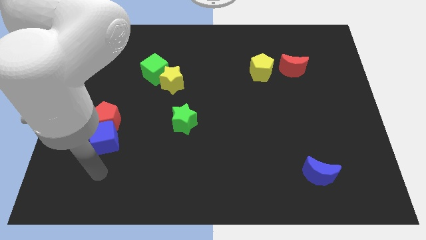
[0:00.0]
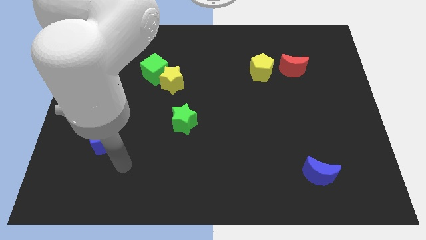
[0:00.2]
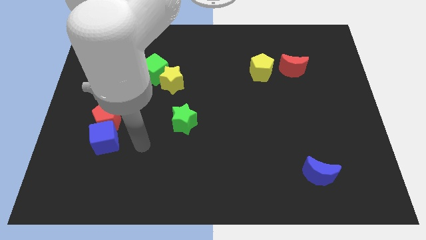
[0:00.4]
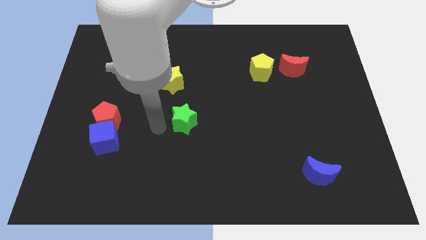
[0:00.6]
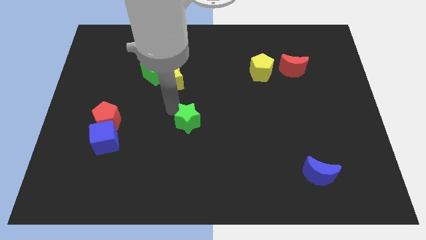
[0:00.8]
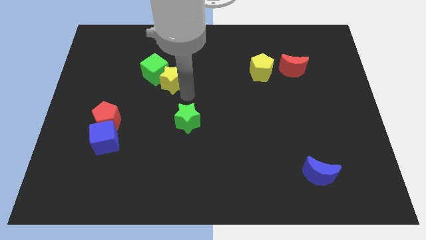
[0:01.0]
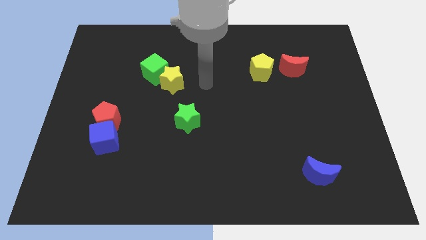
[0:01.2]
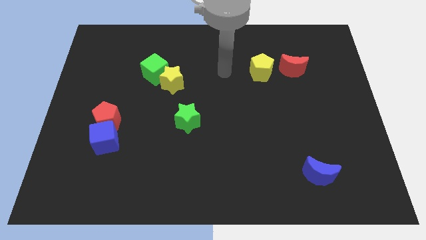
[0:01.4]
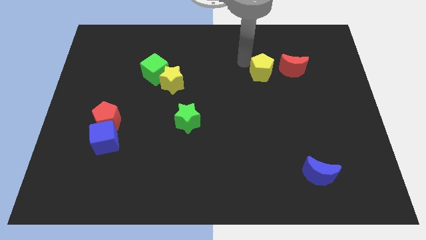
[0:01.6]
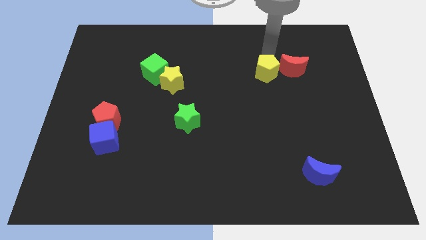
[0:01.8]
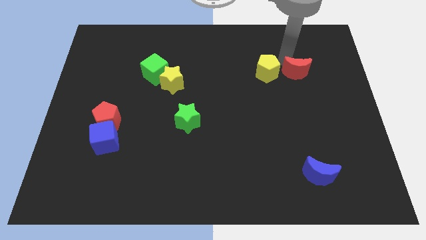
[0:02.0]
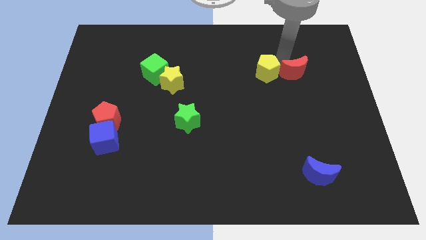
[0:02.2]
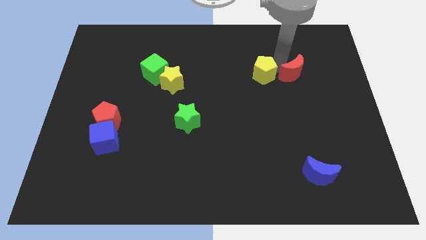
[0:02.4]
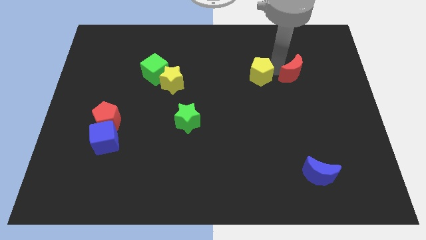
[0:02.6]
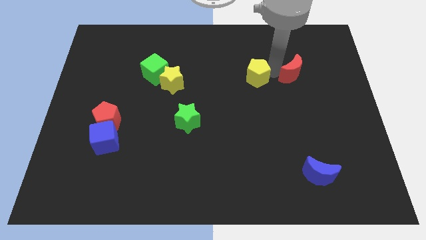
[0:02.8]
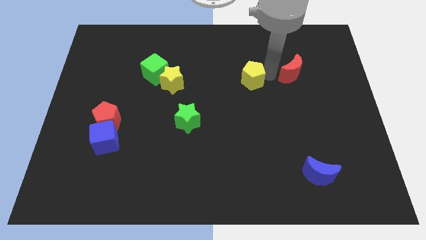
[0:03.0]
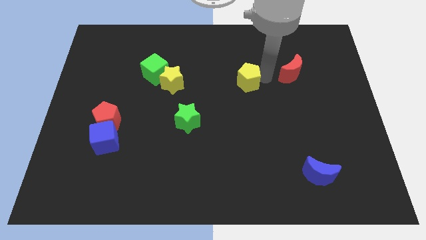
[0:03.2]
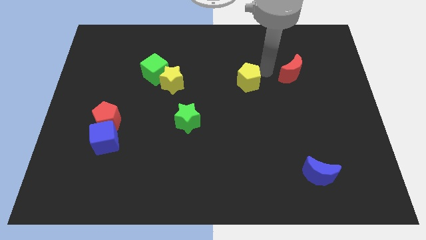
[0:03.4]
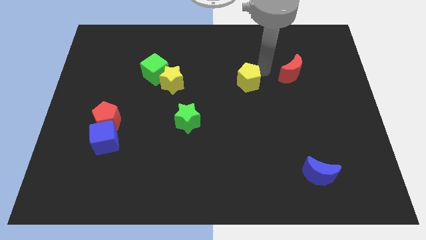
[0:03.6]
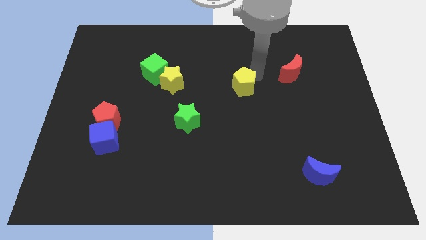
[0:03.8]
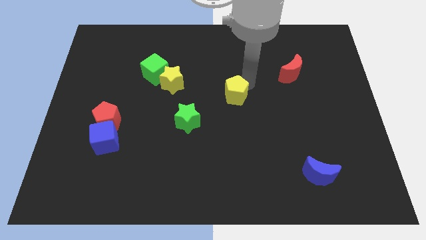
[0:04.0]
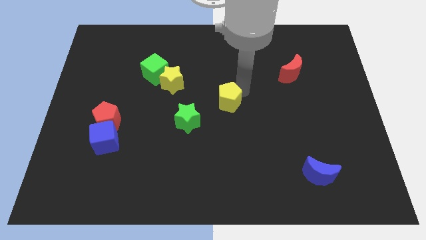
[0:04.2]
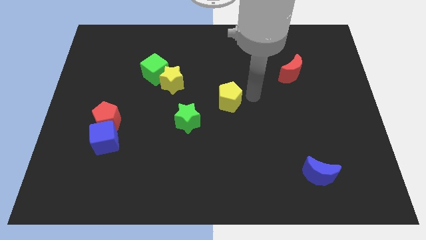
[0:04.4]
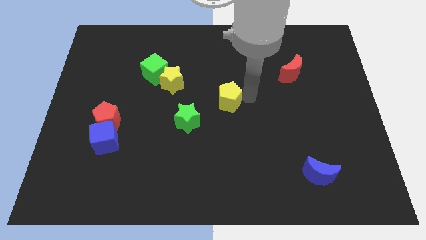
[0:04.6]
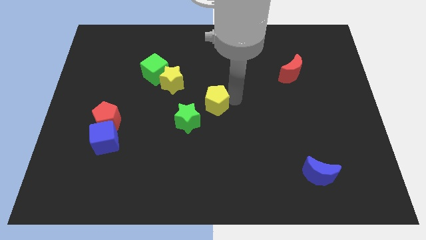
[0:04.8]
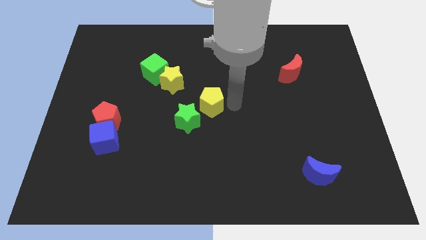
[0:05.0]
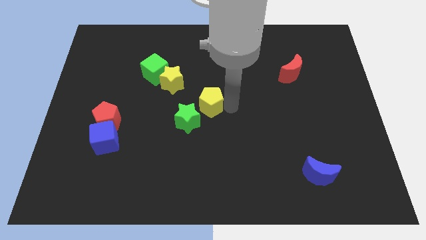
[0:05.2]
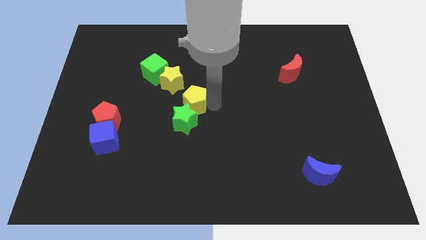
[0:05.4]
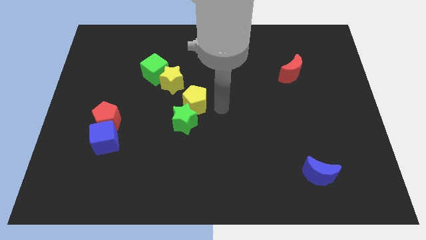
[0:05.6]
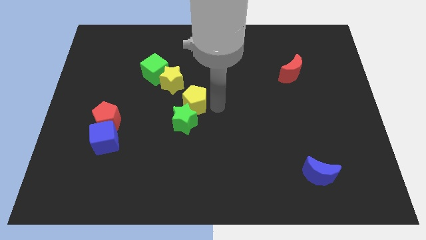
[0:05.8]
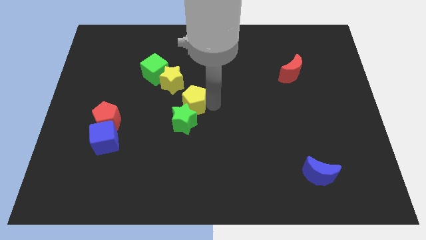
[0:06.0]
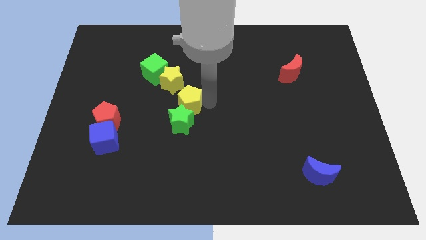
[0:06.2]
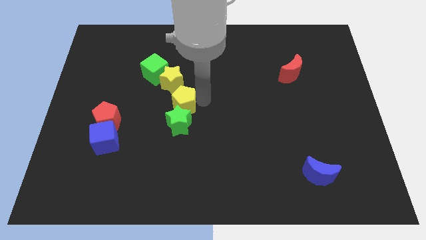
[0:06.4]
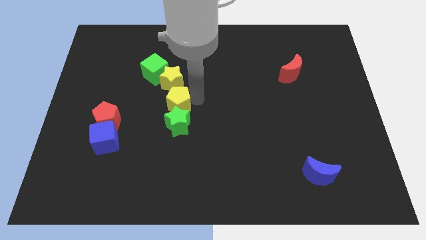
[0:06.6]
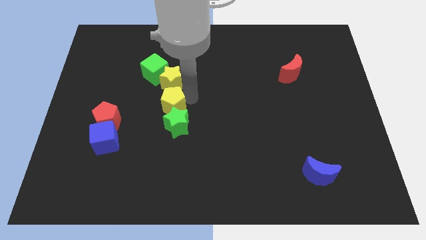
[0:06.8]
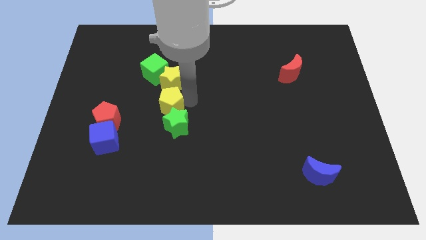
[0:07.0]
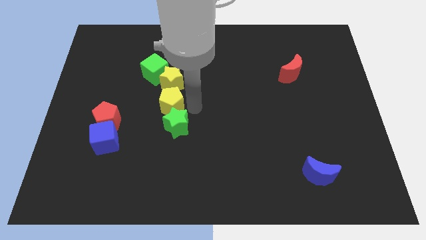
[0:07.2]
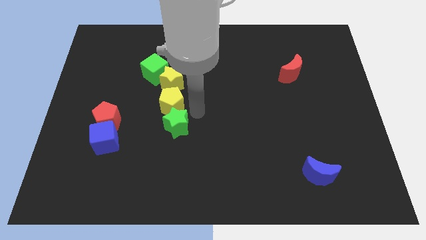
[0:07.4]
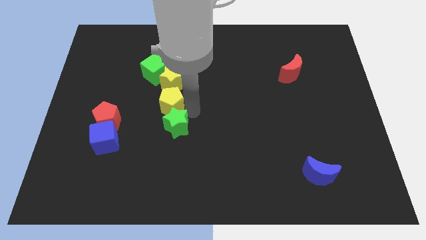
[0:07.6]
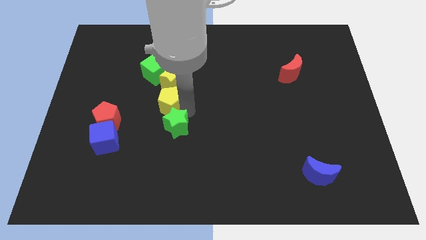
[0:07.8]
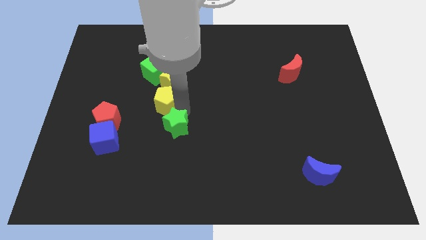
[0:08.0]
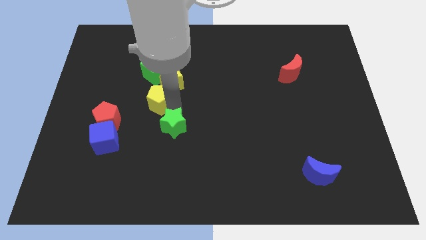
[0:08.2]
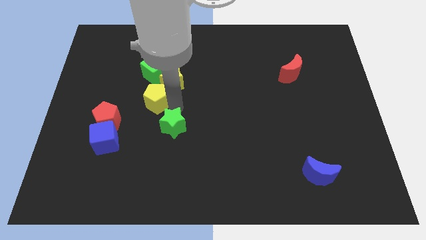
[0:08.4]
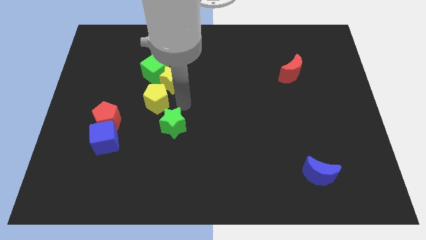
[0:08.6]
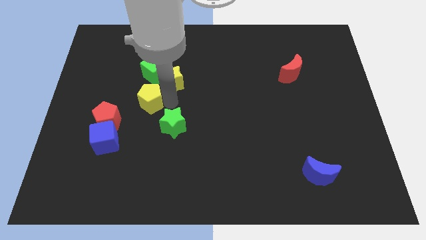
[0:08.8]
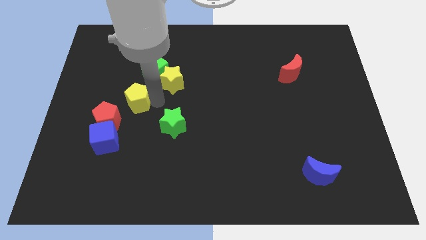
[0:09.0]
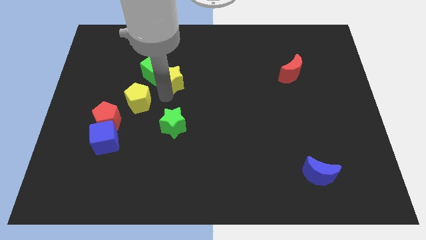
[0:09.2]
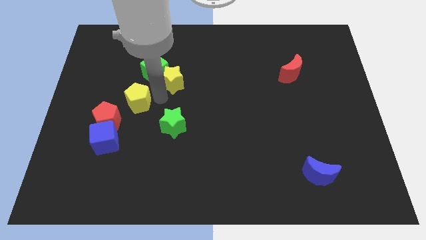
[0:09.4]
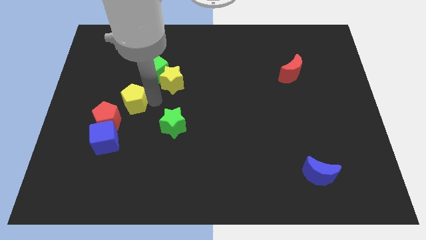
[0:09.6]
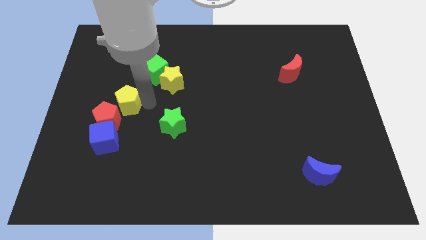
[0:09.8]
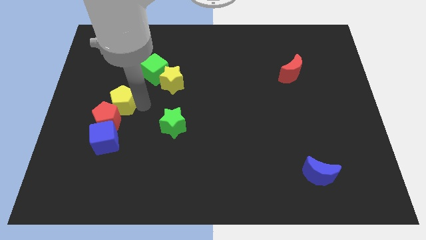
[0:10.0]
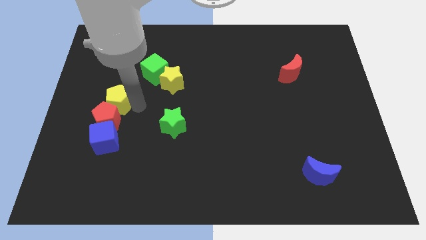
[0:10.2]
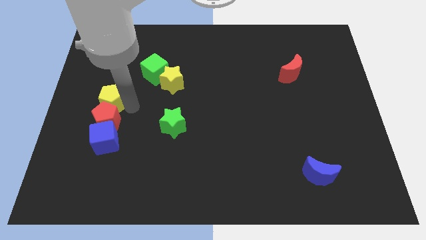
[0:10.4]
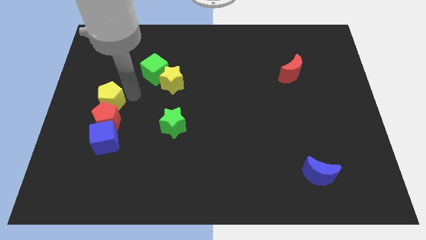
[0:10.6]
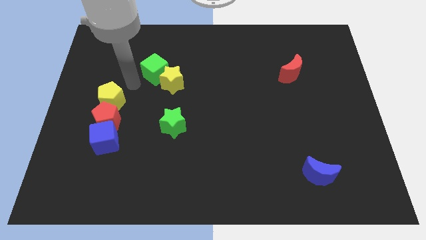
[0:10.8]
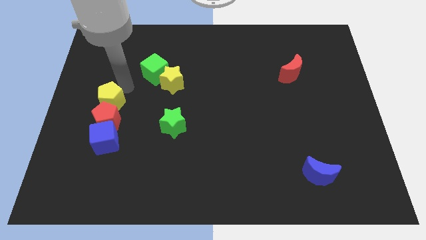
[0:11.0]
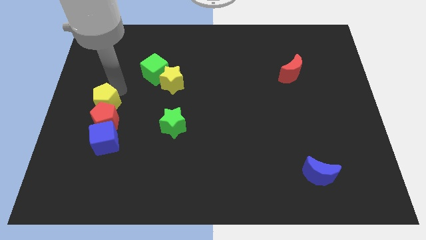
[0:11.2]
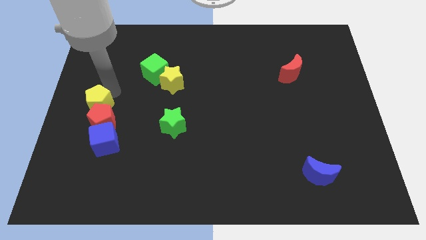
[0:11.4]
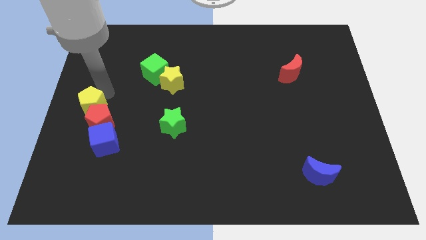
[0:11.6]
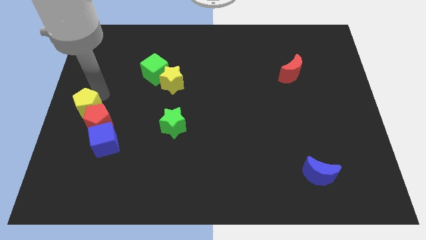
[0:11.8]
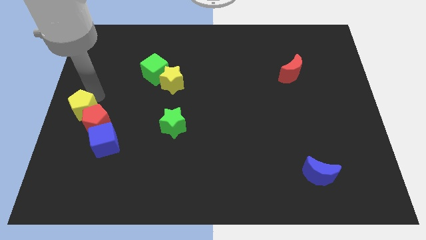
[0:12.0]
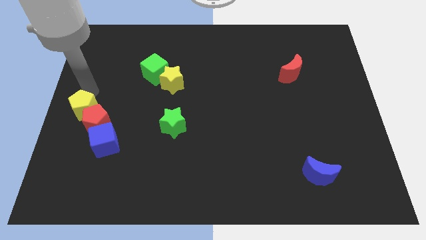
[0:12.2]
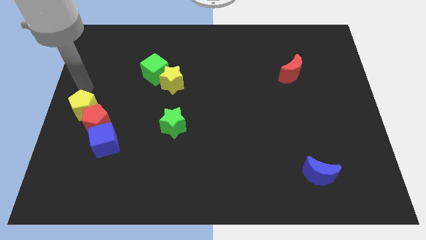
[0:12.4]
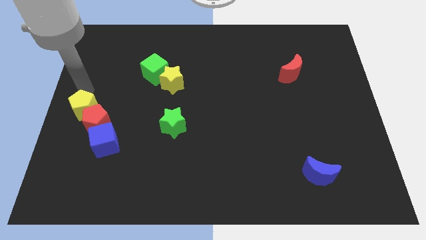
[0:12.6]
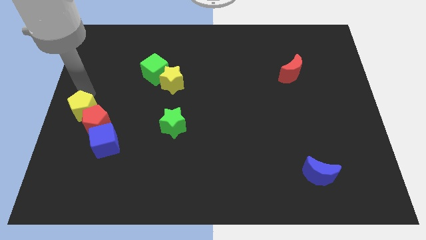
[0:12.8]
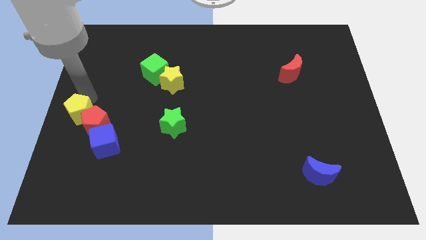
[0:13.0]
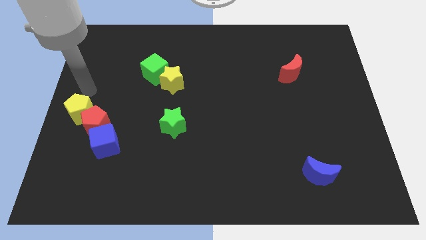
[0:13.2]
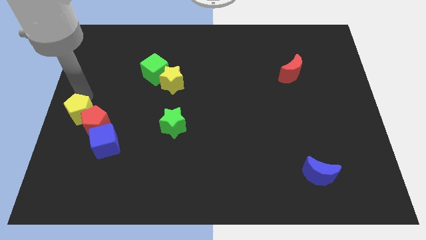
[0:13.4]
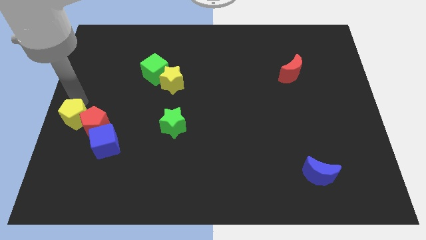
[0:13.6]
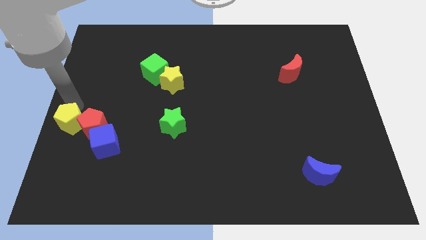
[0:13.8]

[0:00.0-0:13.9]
slide the yellow pentagon diagonally down and to the left of the red pentagon
